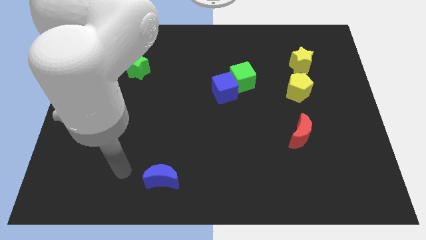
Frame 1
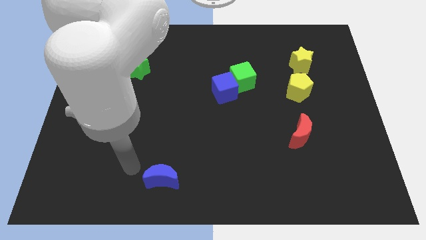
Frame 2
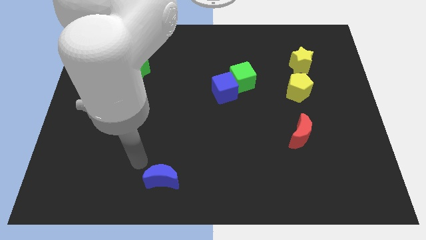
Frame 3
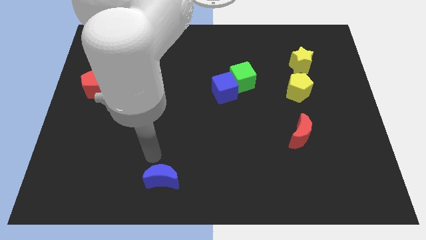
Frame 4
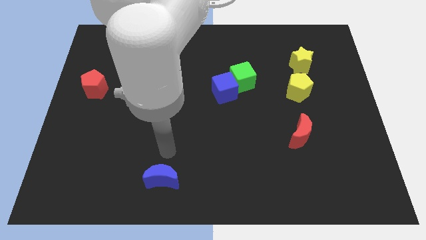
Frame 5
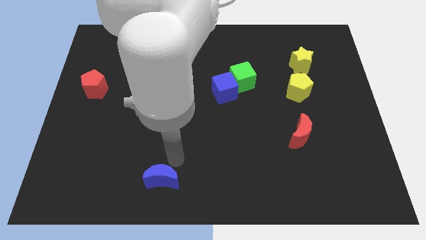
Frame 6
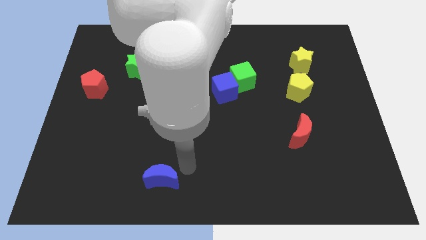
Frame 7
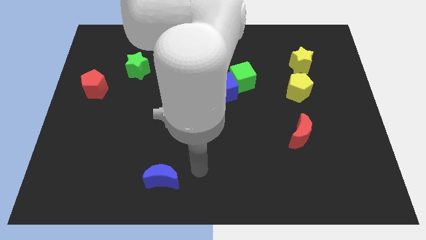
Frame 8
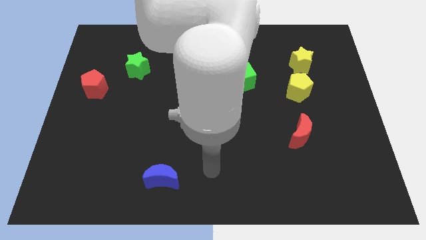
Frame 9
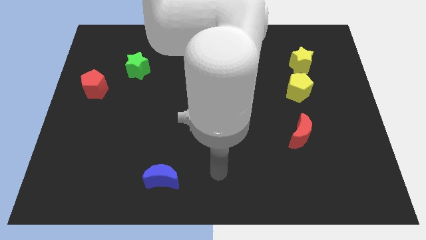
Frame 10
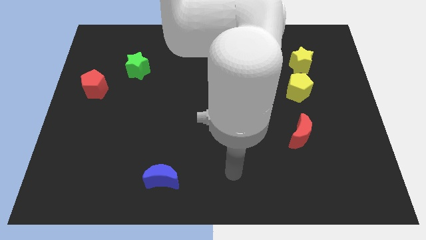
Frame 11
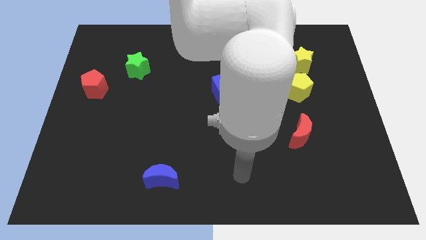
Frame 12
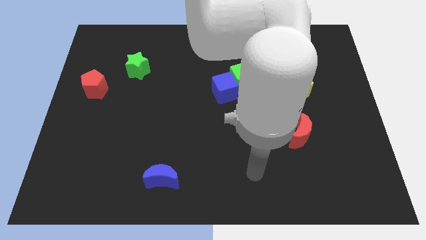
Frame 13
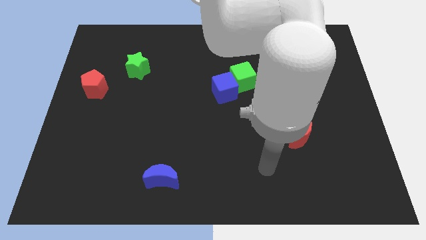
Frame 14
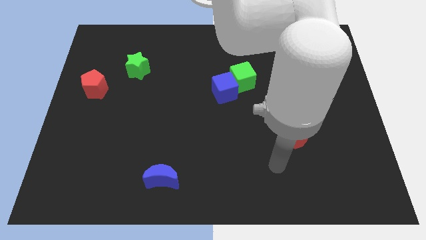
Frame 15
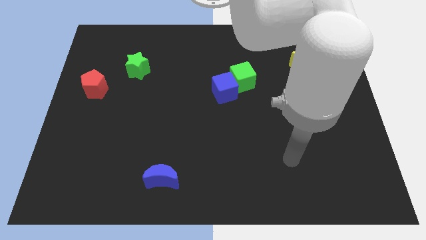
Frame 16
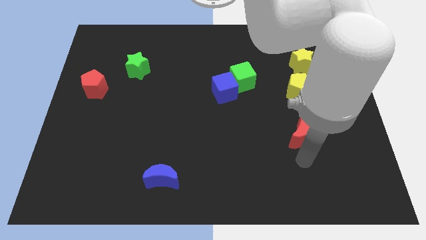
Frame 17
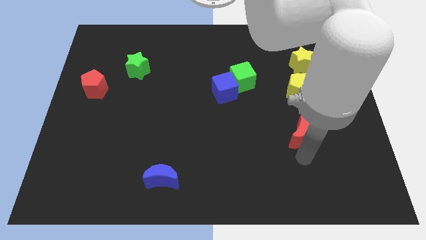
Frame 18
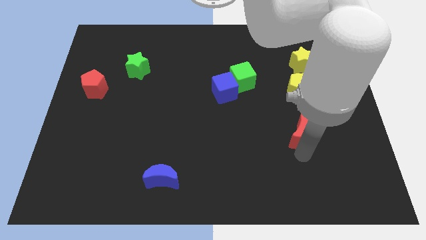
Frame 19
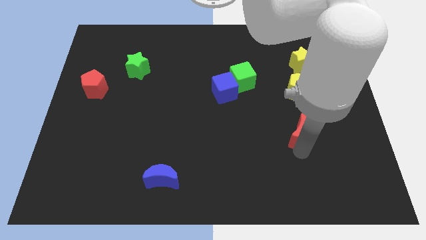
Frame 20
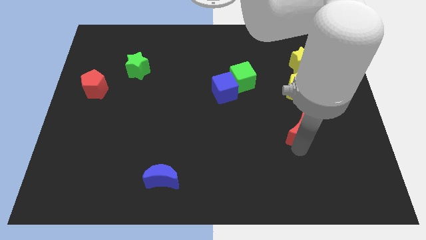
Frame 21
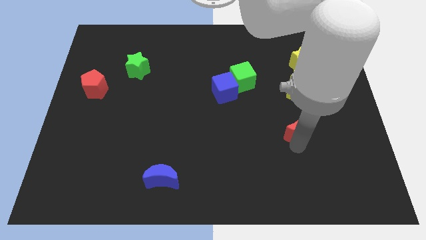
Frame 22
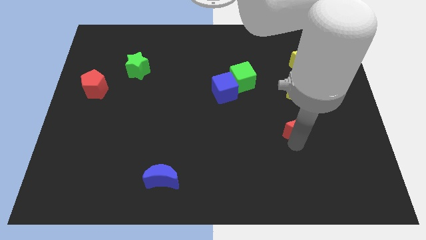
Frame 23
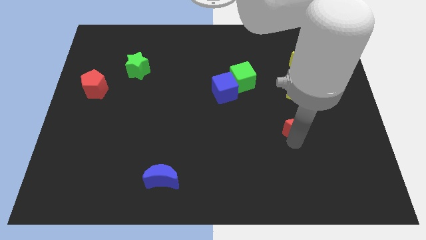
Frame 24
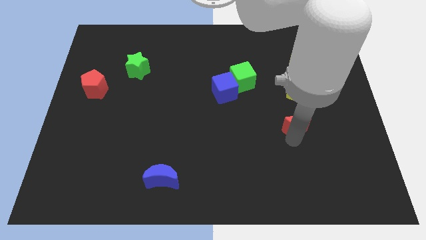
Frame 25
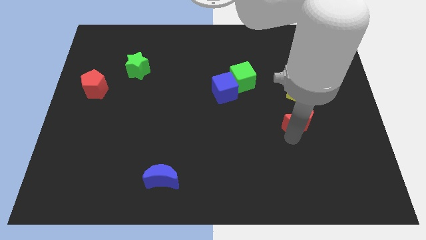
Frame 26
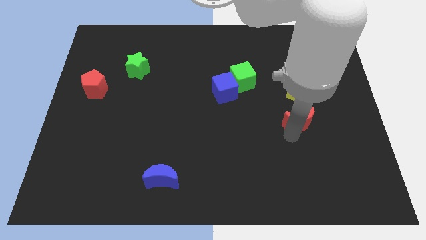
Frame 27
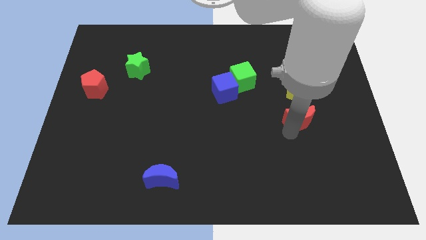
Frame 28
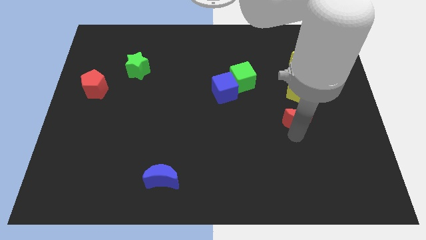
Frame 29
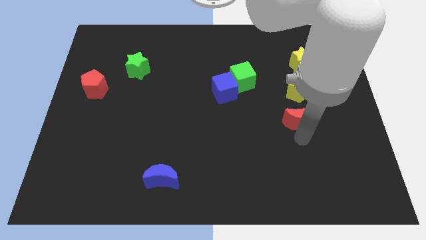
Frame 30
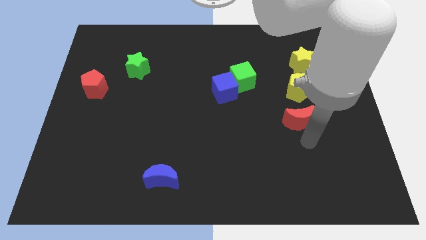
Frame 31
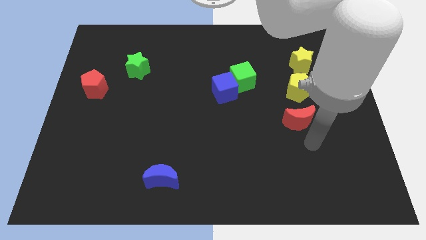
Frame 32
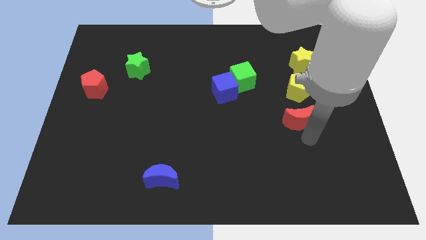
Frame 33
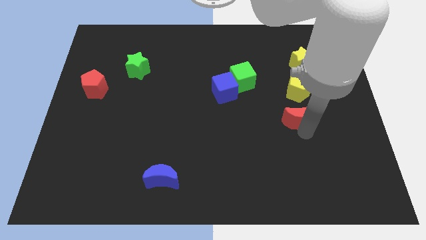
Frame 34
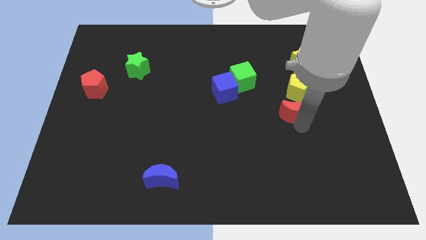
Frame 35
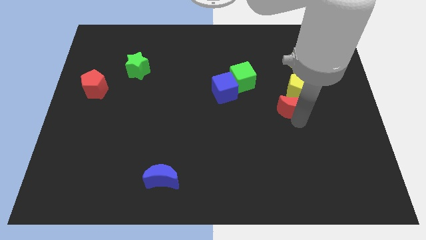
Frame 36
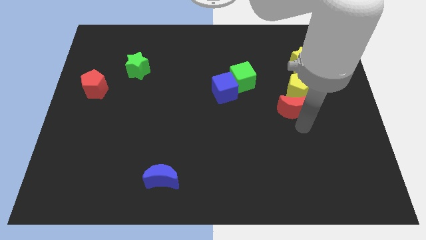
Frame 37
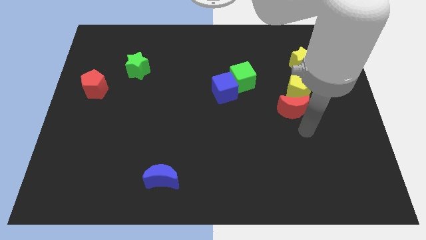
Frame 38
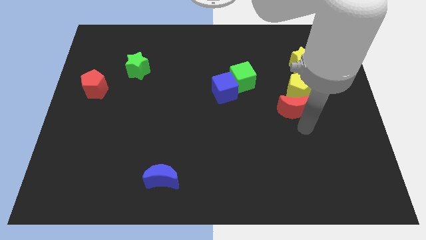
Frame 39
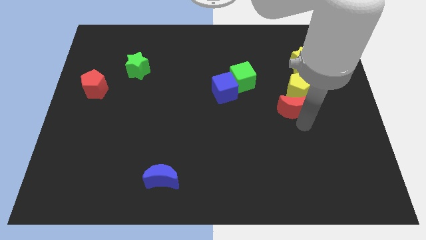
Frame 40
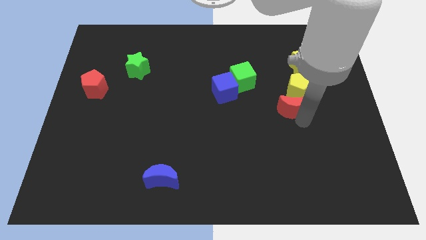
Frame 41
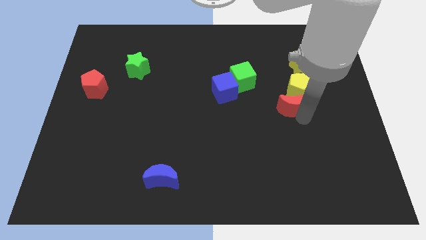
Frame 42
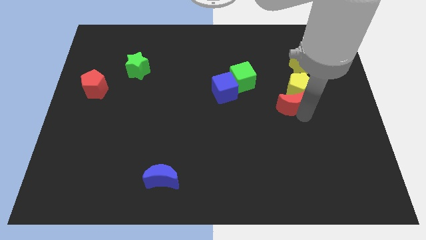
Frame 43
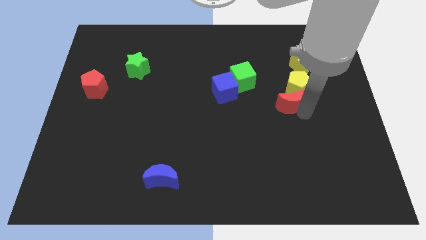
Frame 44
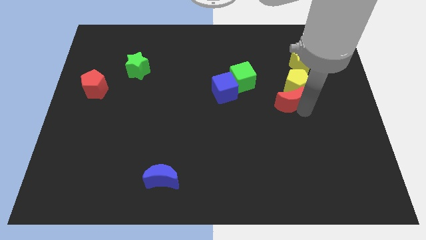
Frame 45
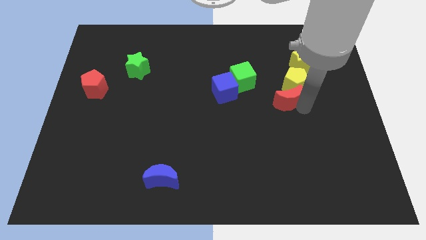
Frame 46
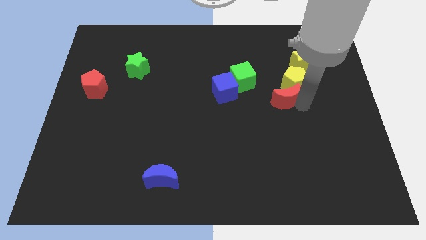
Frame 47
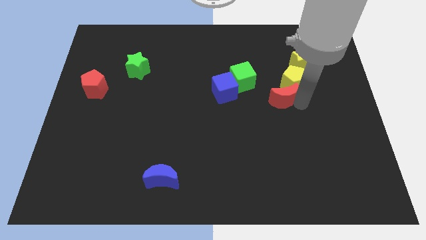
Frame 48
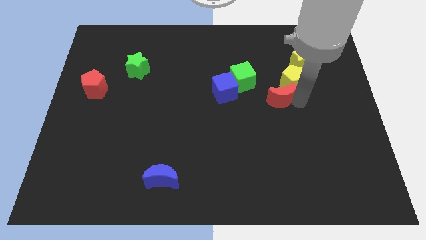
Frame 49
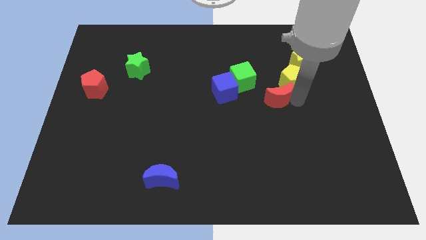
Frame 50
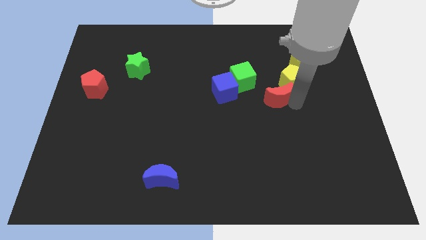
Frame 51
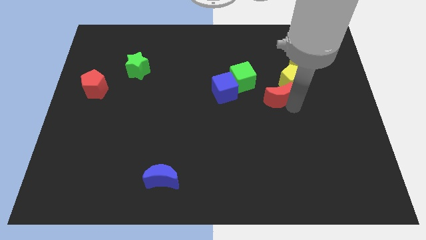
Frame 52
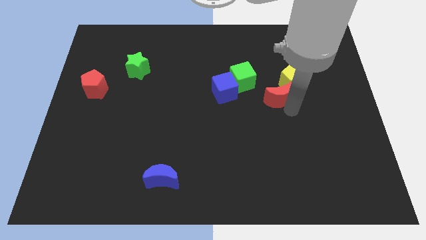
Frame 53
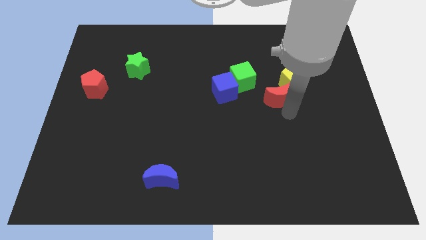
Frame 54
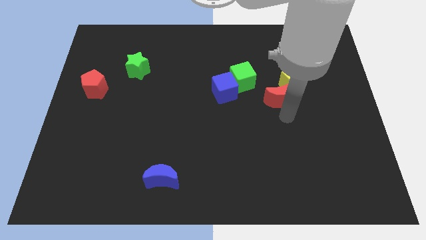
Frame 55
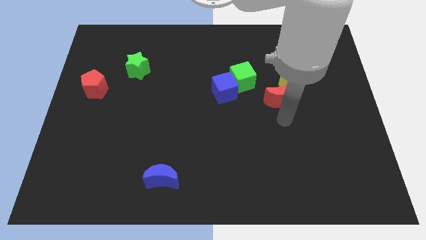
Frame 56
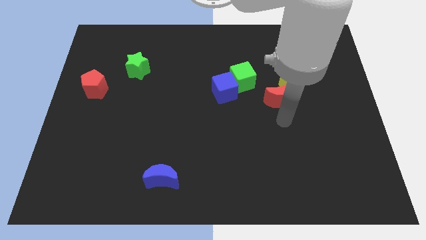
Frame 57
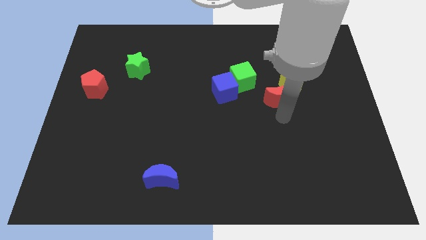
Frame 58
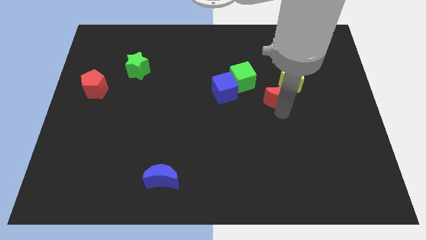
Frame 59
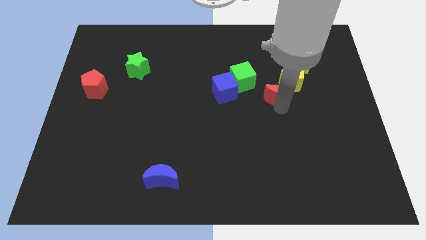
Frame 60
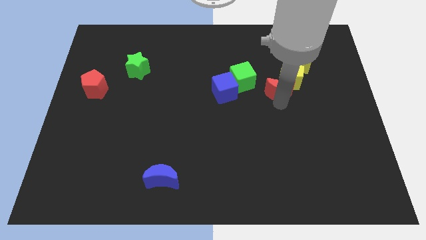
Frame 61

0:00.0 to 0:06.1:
slide the red moon to the bottom left of the yellow star

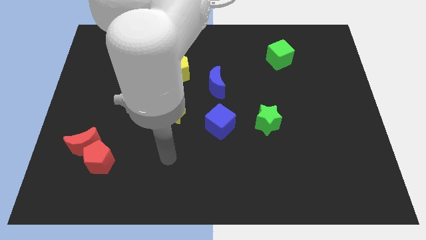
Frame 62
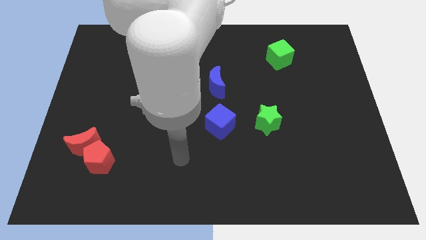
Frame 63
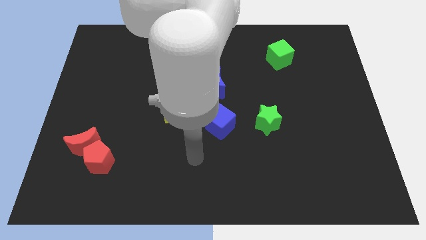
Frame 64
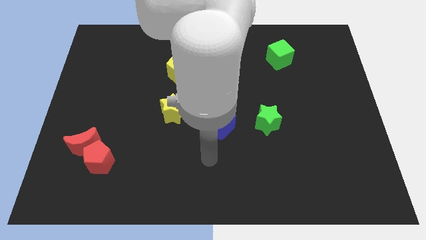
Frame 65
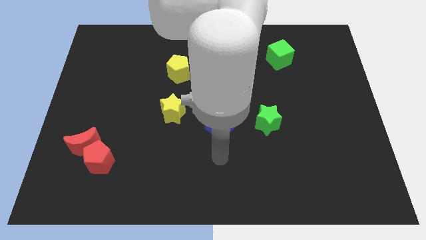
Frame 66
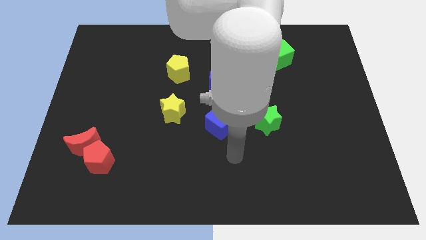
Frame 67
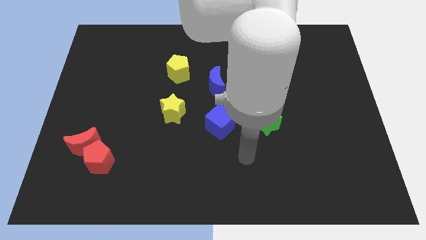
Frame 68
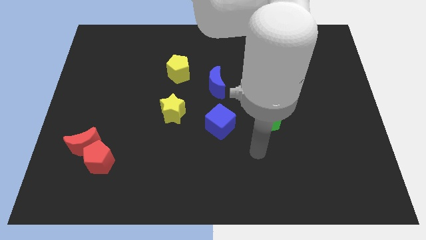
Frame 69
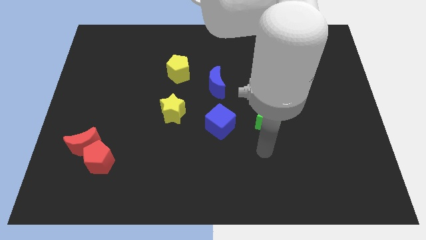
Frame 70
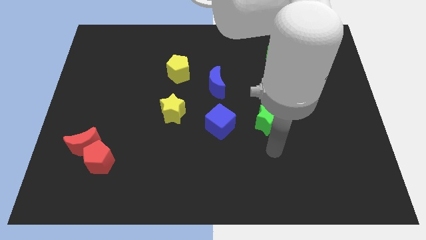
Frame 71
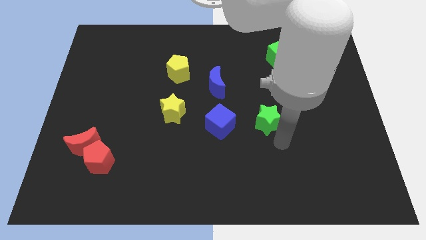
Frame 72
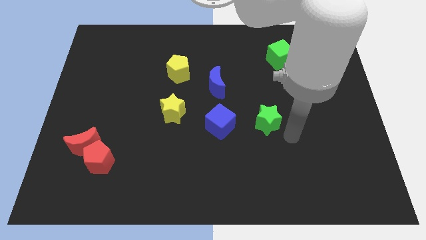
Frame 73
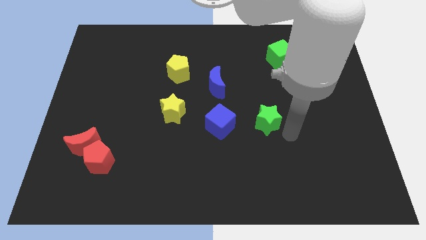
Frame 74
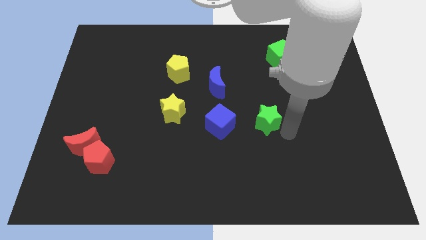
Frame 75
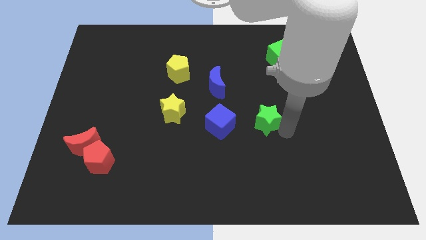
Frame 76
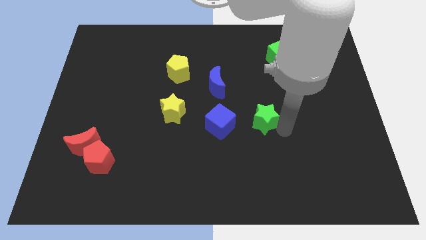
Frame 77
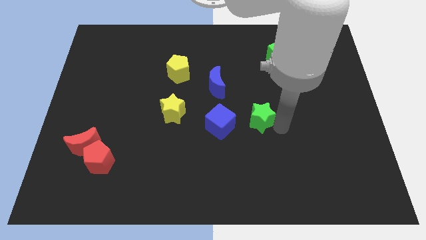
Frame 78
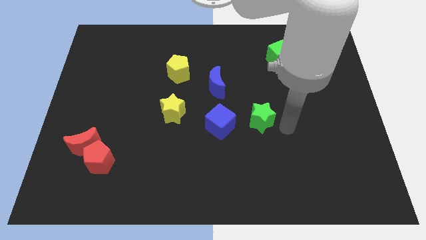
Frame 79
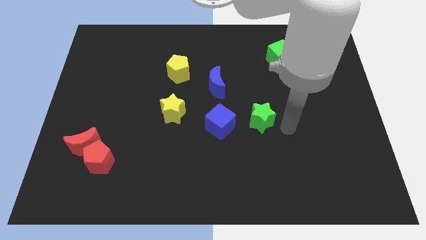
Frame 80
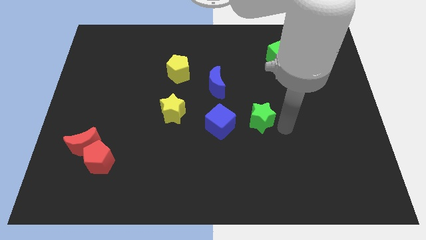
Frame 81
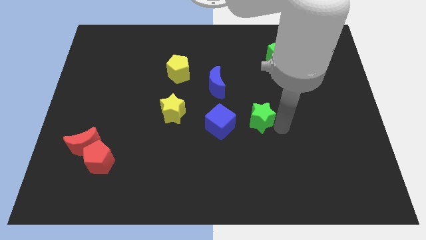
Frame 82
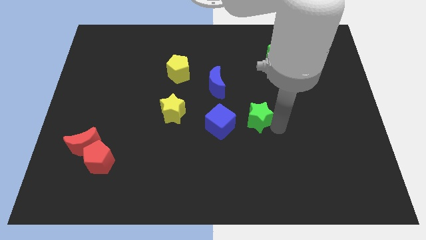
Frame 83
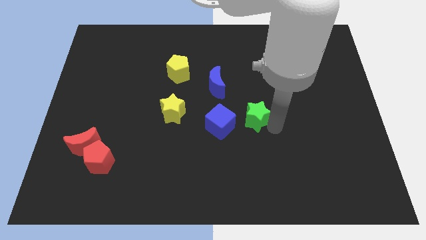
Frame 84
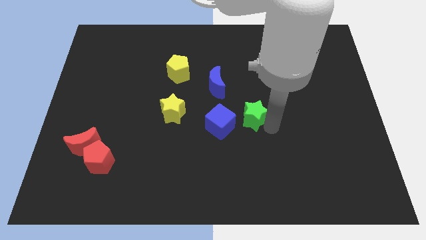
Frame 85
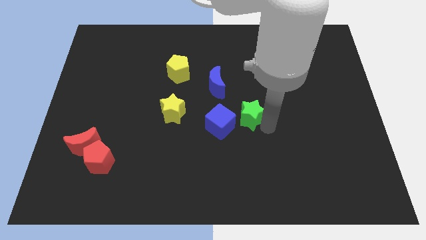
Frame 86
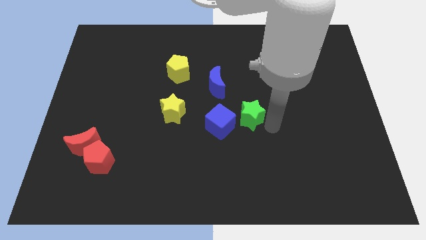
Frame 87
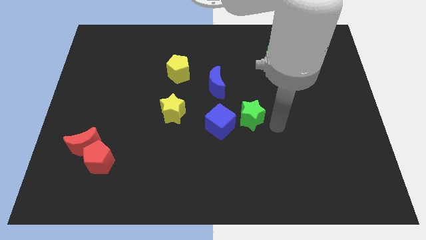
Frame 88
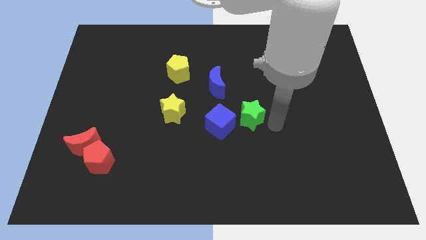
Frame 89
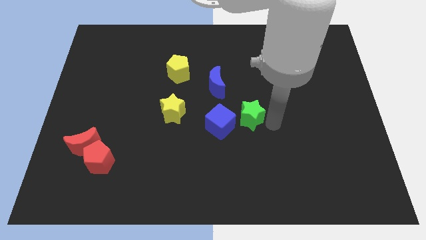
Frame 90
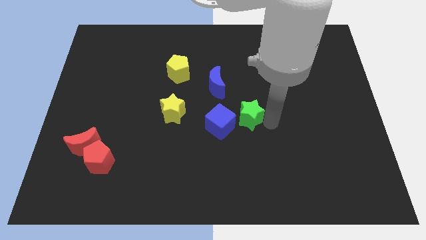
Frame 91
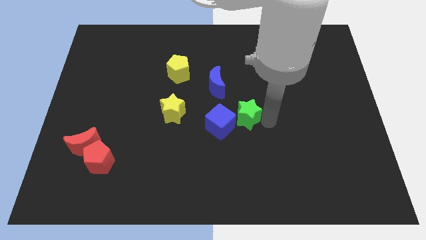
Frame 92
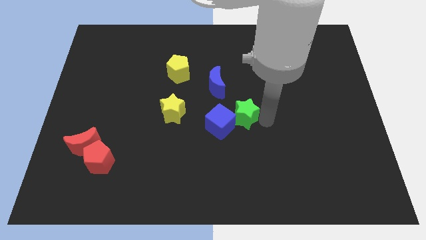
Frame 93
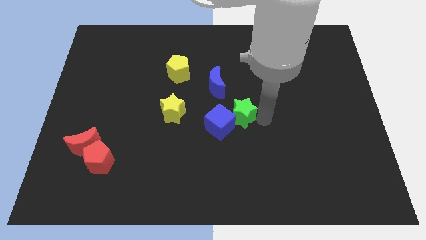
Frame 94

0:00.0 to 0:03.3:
slide the green star to the right side of the yellow star
